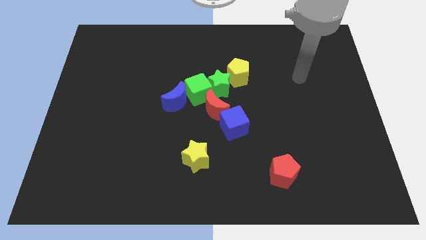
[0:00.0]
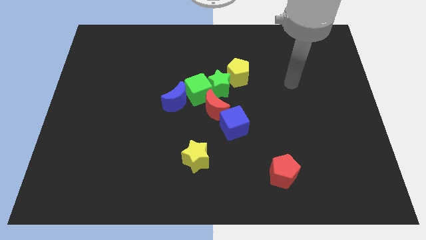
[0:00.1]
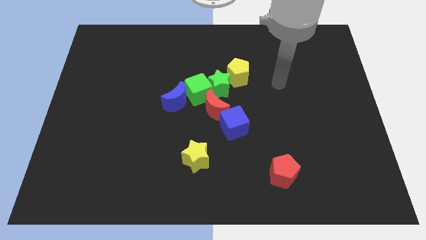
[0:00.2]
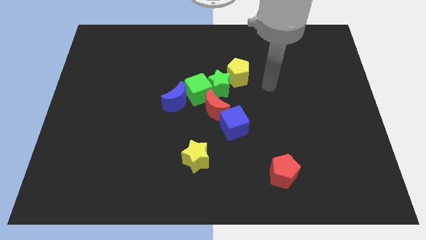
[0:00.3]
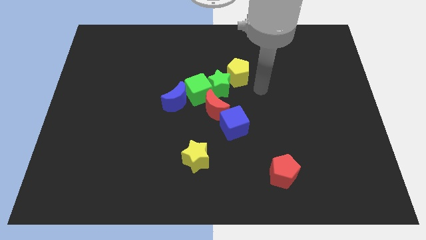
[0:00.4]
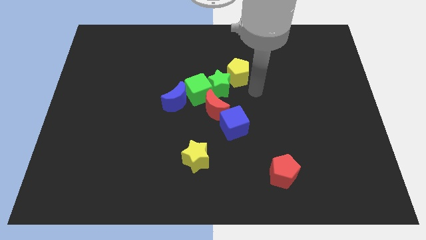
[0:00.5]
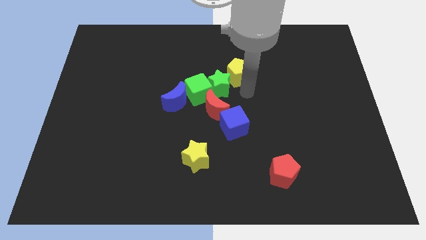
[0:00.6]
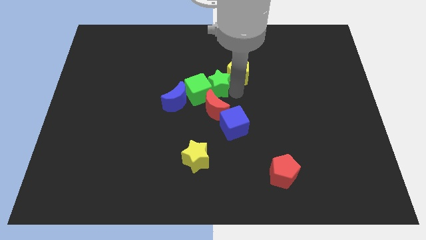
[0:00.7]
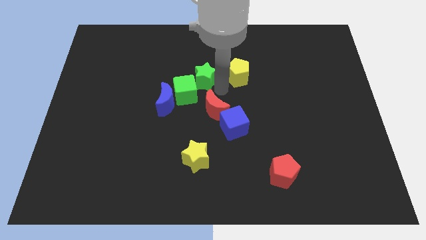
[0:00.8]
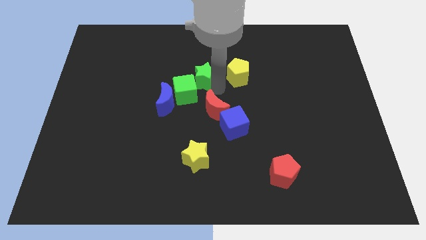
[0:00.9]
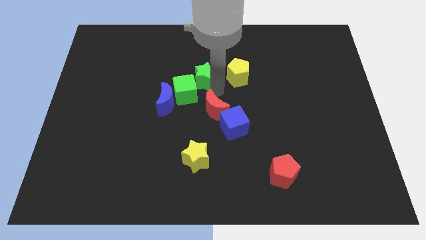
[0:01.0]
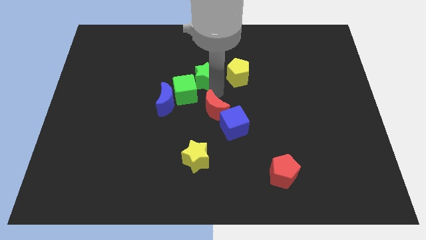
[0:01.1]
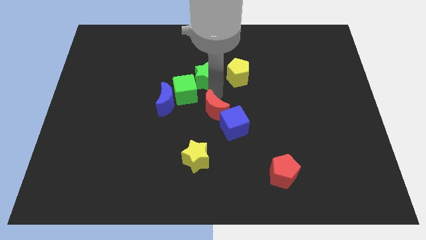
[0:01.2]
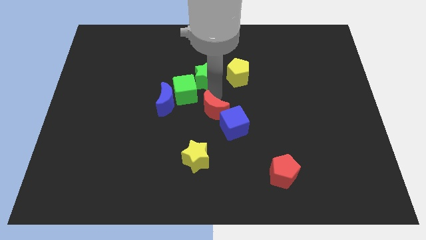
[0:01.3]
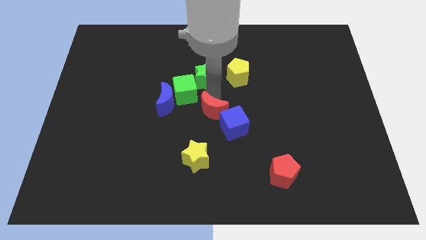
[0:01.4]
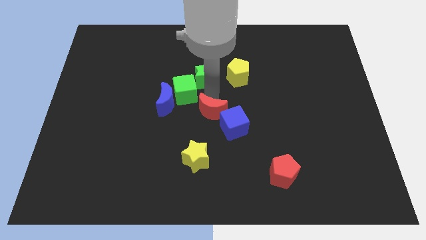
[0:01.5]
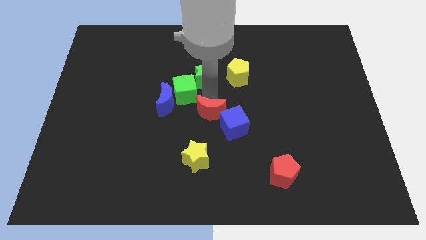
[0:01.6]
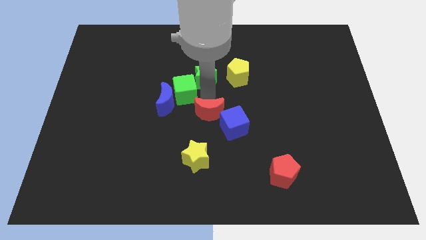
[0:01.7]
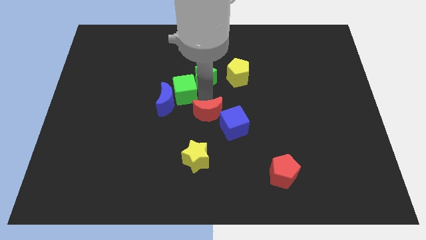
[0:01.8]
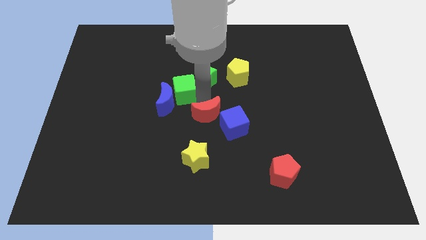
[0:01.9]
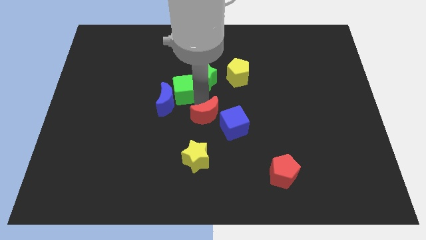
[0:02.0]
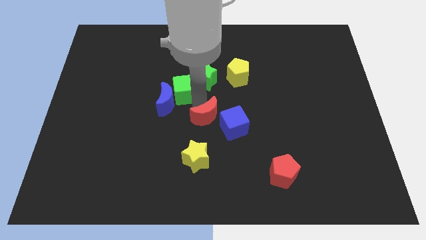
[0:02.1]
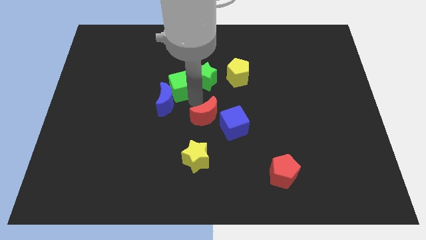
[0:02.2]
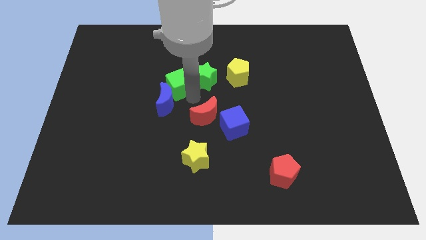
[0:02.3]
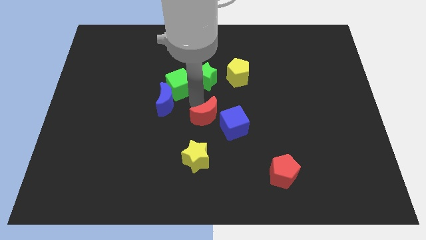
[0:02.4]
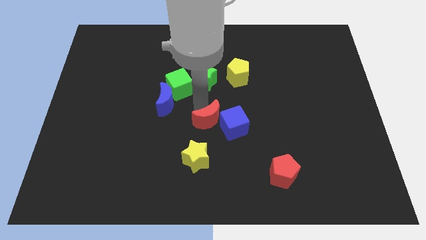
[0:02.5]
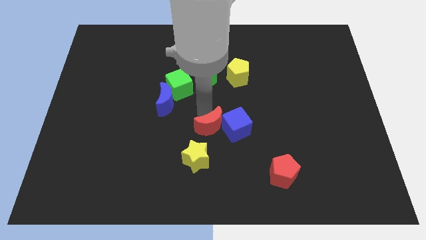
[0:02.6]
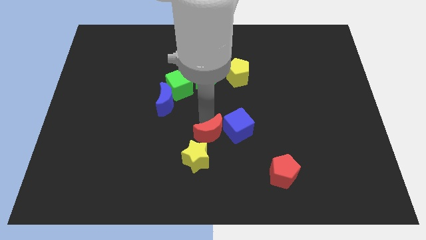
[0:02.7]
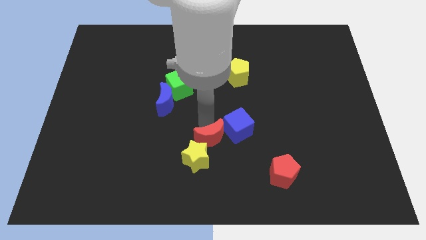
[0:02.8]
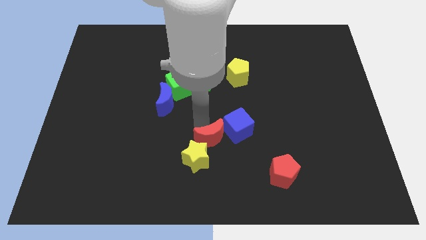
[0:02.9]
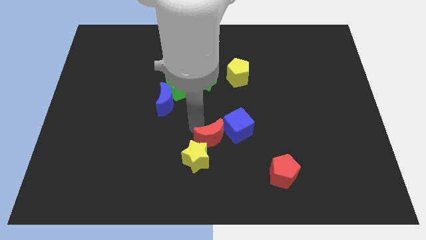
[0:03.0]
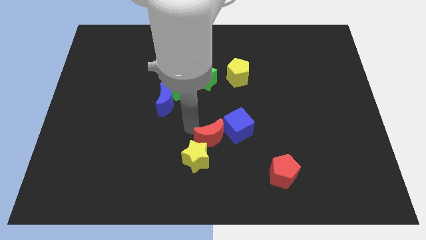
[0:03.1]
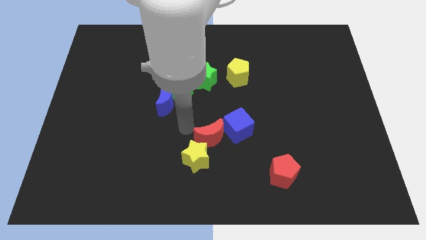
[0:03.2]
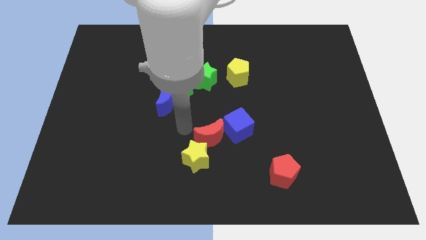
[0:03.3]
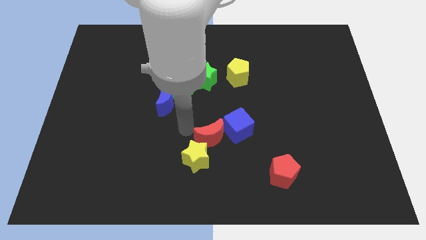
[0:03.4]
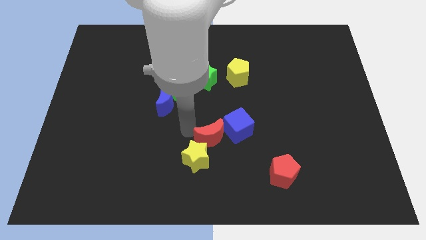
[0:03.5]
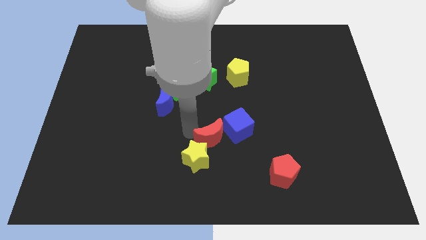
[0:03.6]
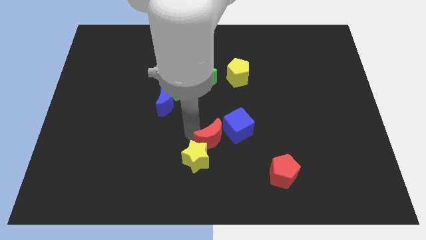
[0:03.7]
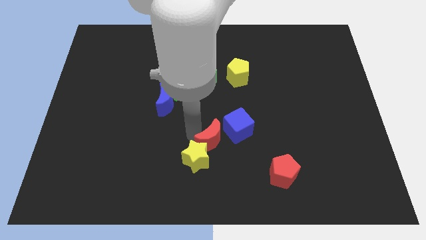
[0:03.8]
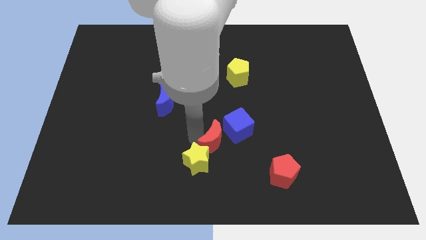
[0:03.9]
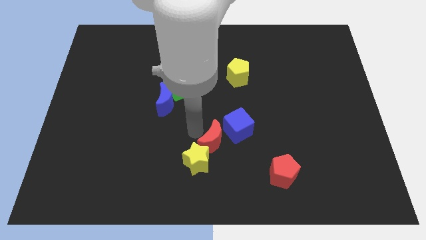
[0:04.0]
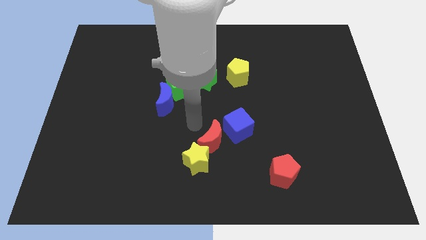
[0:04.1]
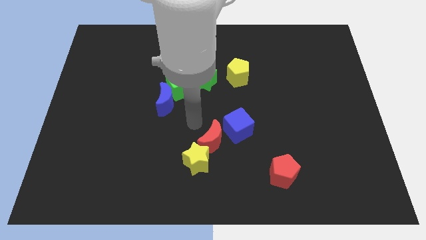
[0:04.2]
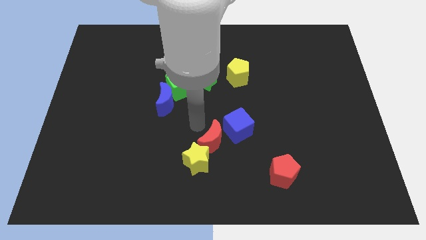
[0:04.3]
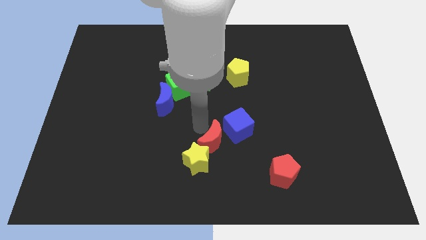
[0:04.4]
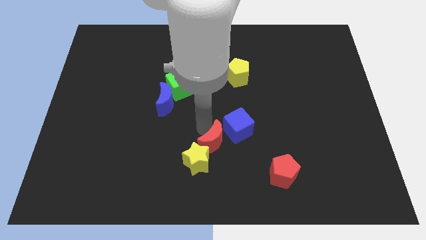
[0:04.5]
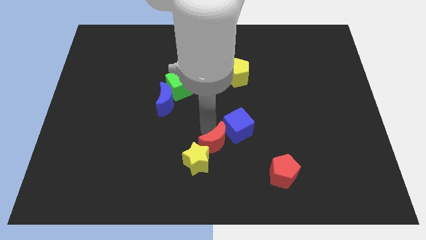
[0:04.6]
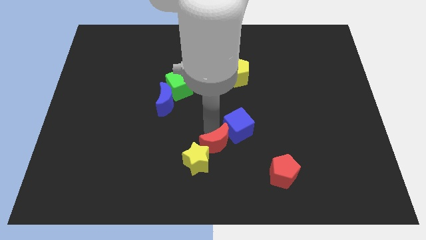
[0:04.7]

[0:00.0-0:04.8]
move the red moon to the bottom of the blue cube

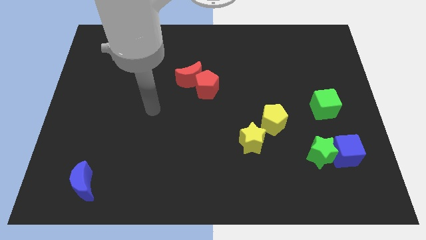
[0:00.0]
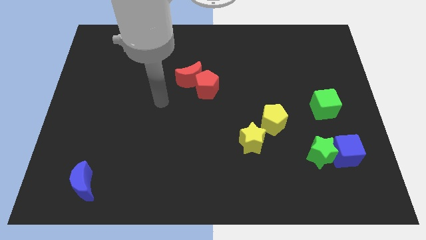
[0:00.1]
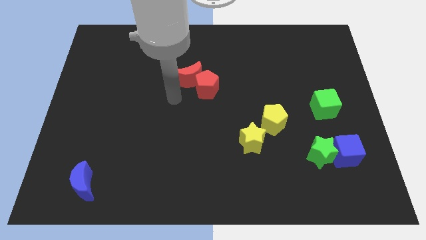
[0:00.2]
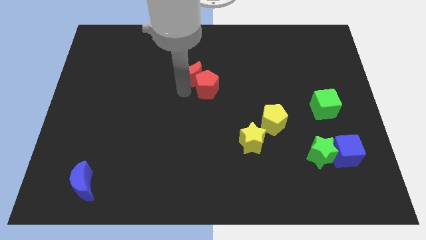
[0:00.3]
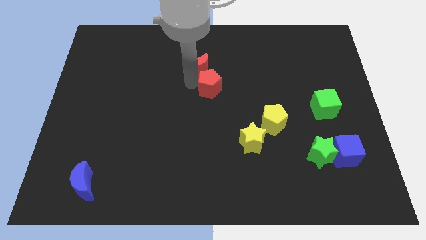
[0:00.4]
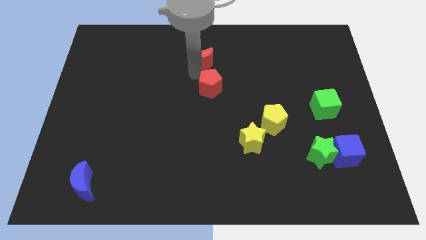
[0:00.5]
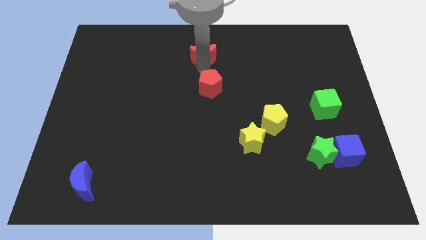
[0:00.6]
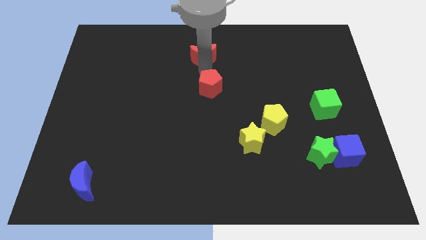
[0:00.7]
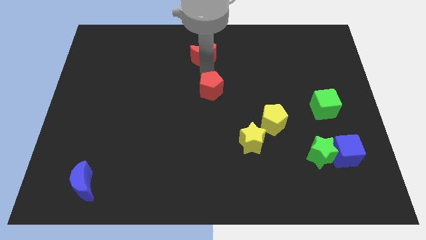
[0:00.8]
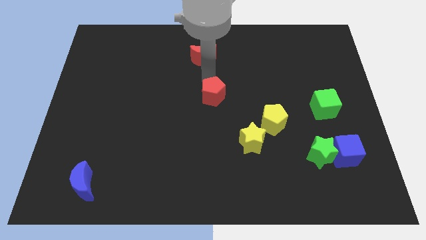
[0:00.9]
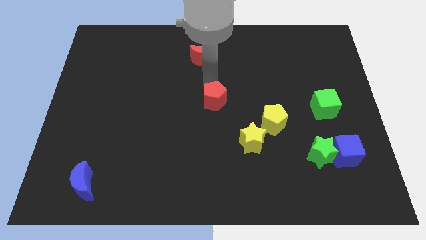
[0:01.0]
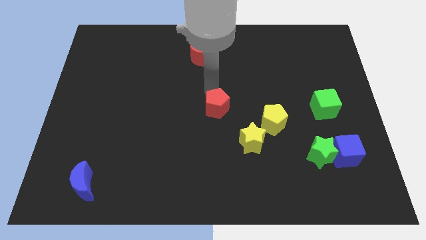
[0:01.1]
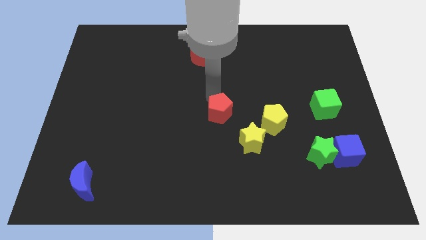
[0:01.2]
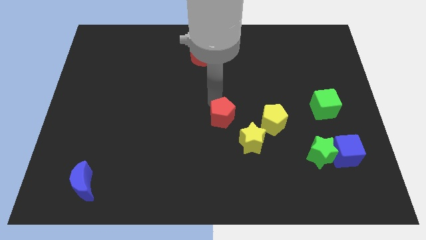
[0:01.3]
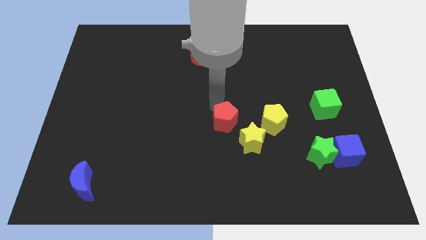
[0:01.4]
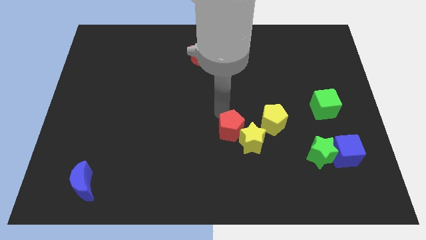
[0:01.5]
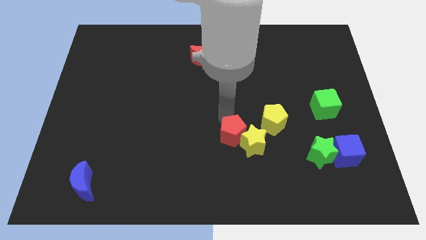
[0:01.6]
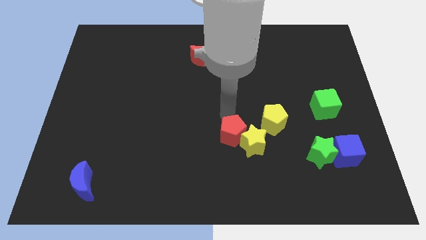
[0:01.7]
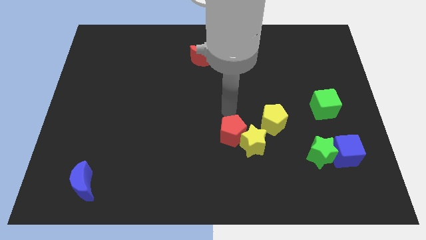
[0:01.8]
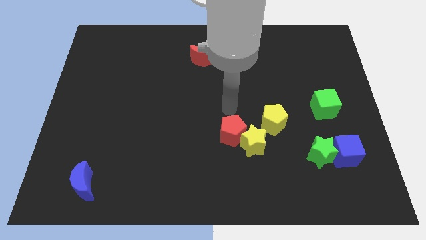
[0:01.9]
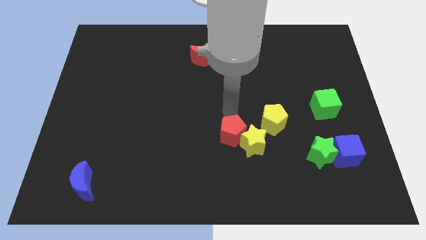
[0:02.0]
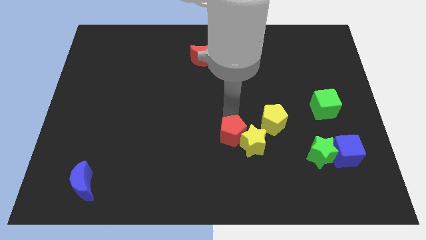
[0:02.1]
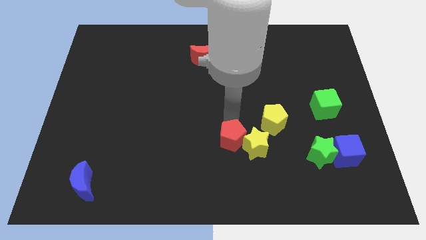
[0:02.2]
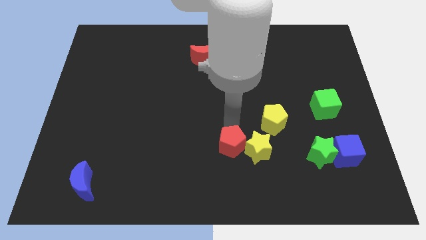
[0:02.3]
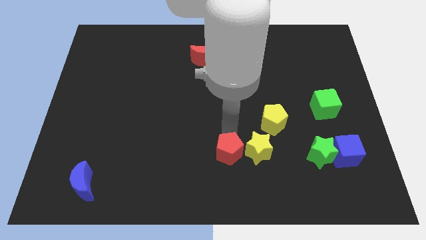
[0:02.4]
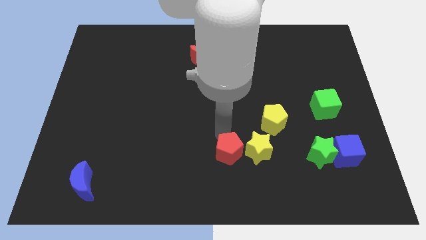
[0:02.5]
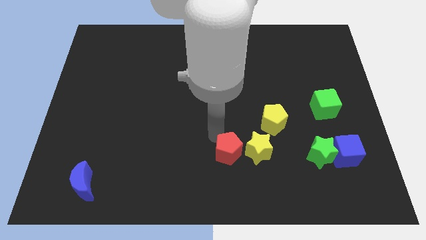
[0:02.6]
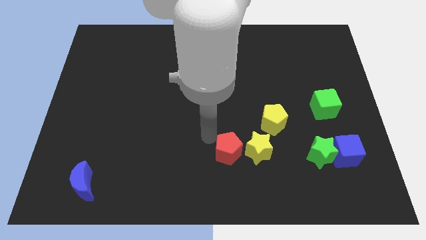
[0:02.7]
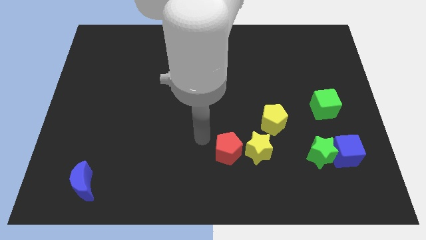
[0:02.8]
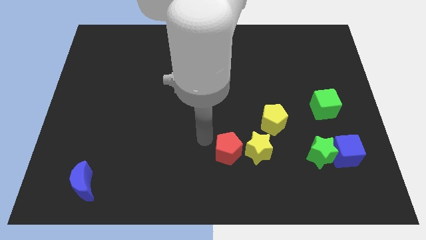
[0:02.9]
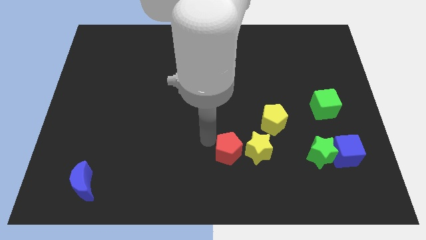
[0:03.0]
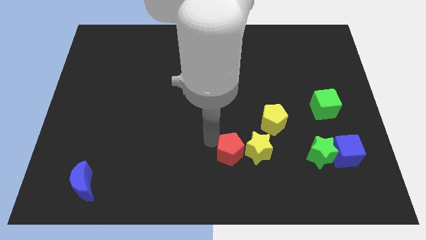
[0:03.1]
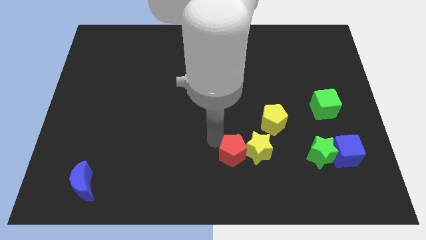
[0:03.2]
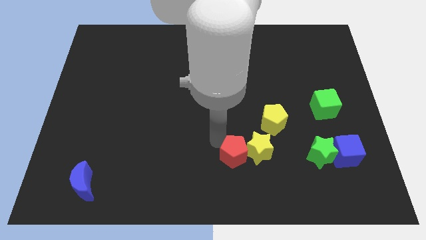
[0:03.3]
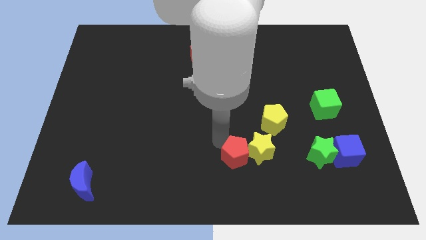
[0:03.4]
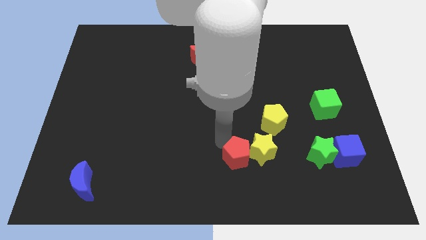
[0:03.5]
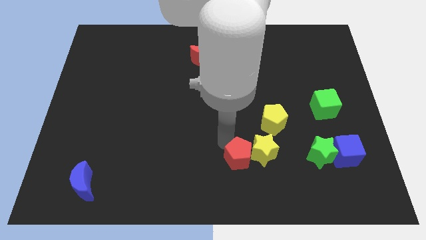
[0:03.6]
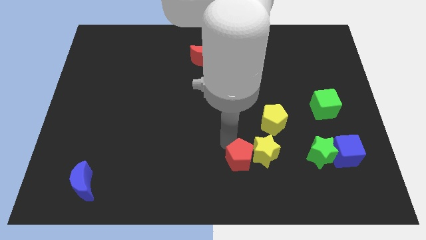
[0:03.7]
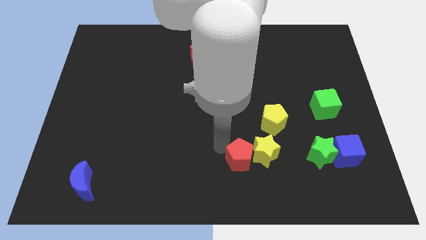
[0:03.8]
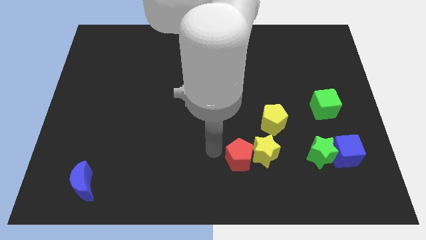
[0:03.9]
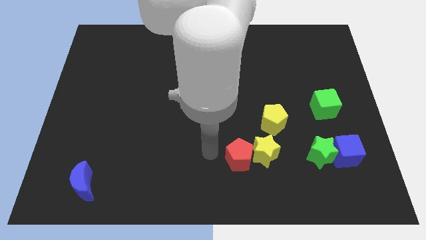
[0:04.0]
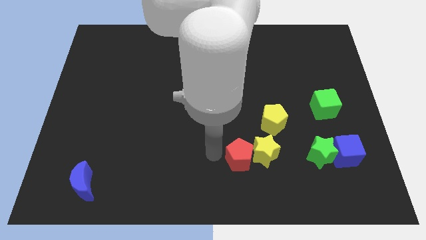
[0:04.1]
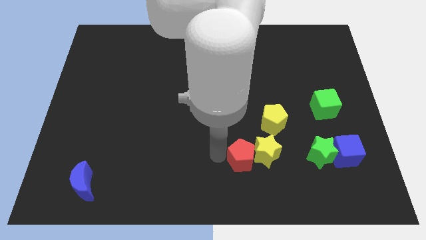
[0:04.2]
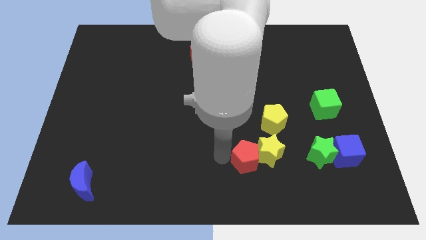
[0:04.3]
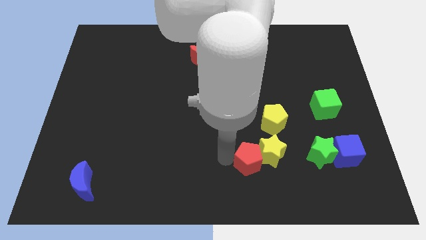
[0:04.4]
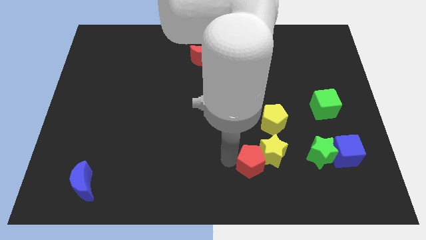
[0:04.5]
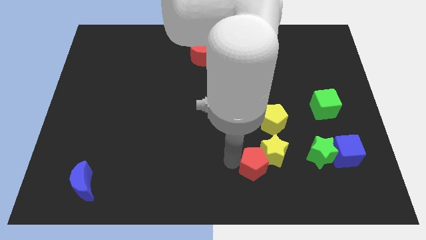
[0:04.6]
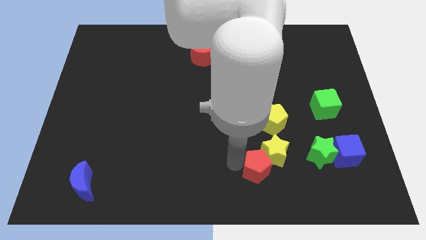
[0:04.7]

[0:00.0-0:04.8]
move the red pentagon to the bottom of the yellow pentagon
